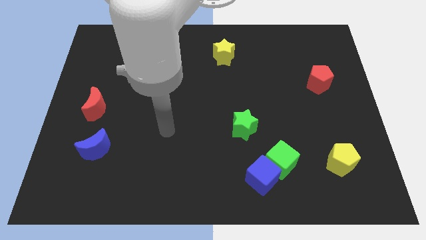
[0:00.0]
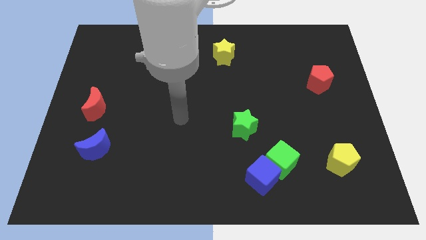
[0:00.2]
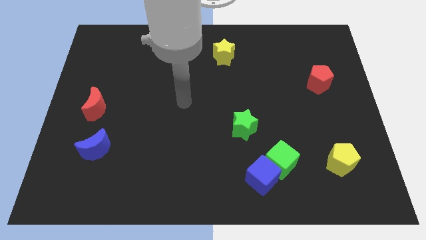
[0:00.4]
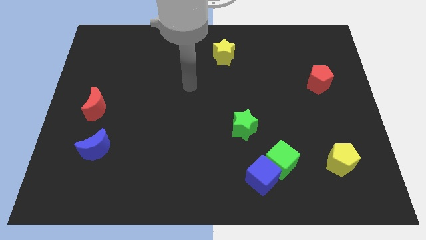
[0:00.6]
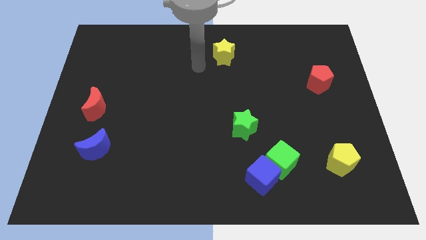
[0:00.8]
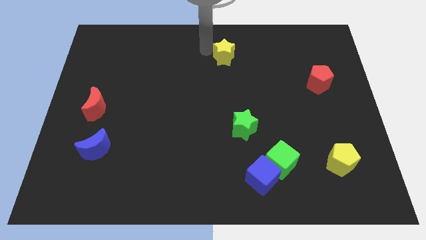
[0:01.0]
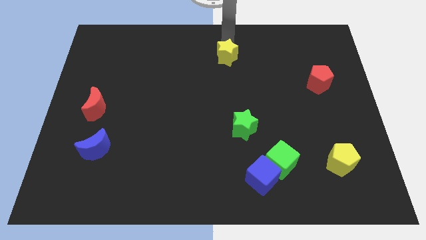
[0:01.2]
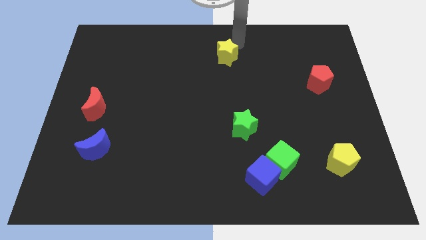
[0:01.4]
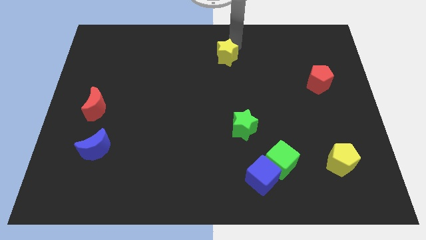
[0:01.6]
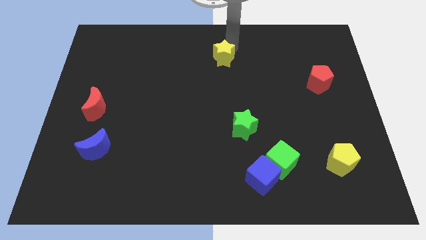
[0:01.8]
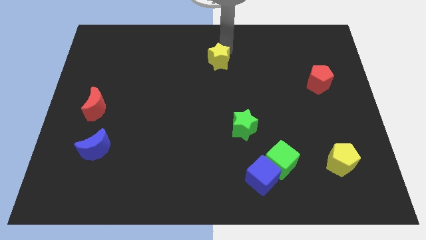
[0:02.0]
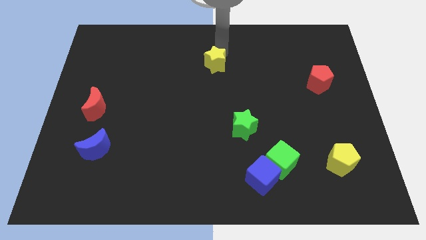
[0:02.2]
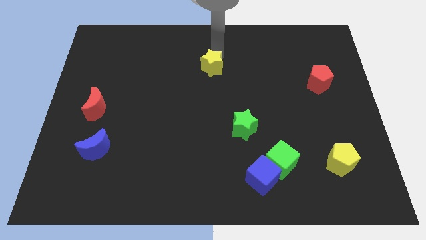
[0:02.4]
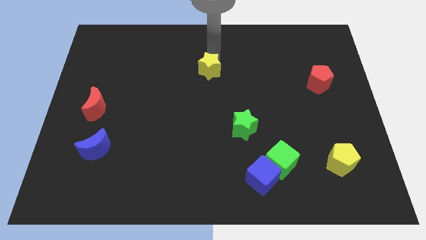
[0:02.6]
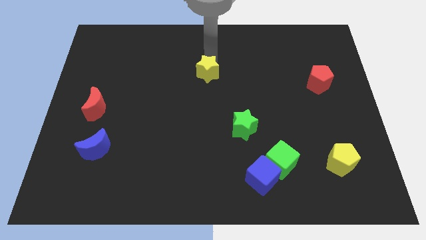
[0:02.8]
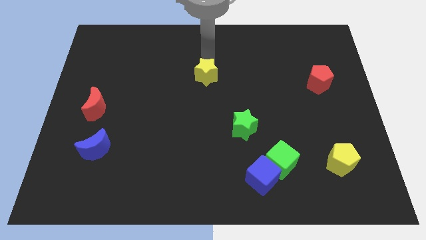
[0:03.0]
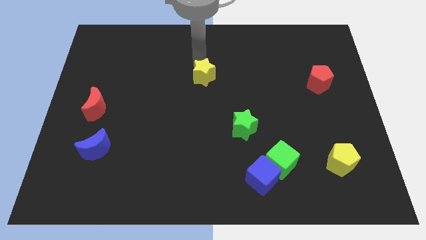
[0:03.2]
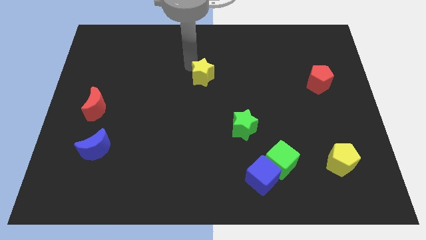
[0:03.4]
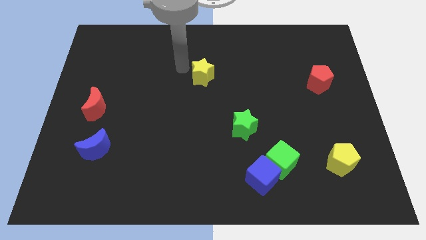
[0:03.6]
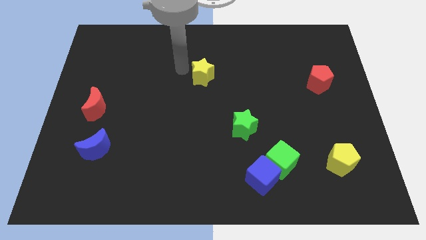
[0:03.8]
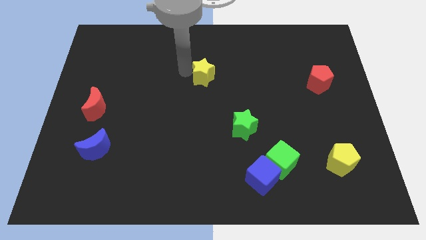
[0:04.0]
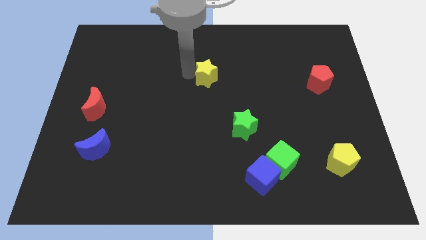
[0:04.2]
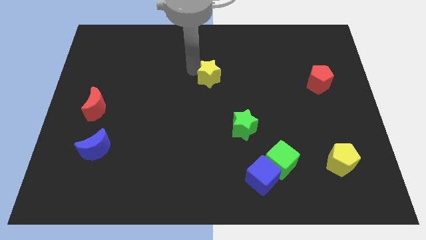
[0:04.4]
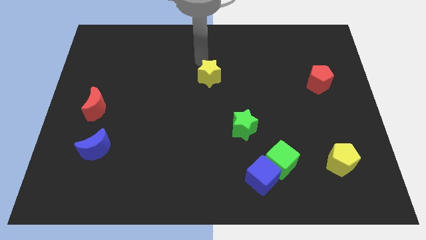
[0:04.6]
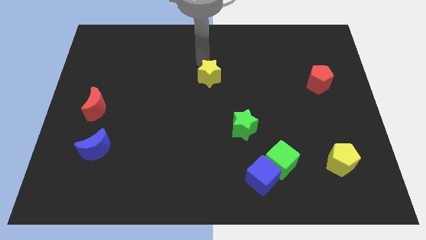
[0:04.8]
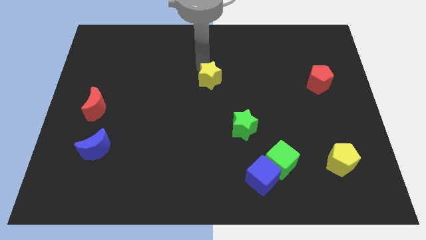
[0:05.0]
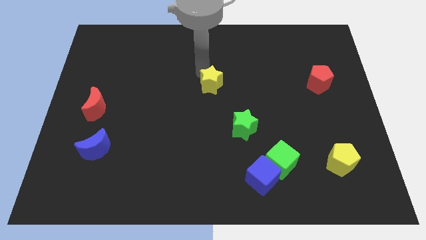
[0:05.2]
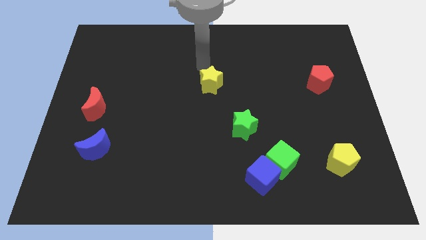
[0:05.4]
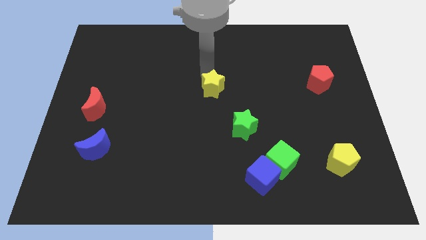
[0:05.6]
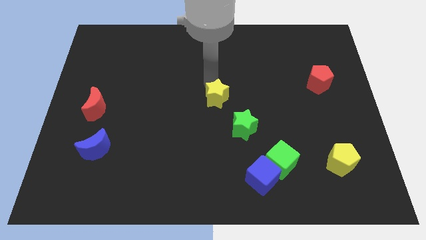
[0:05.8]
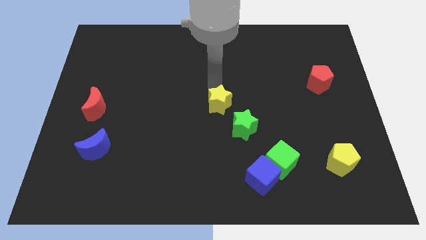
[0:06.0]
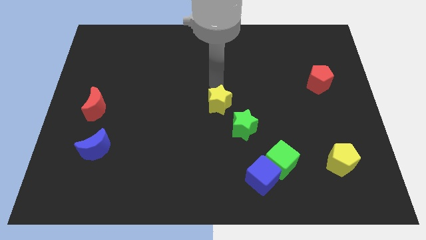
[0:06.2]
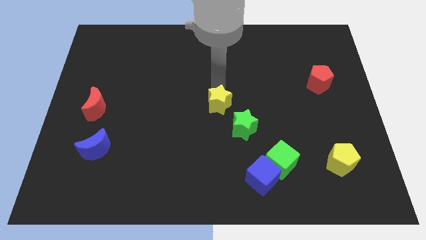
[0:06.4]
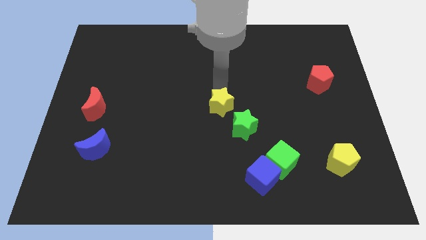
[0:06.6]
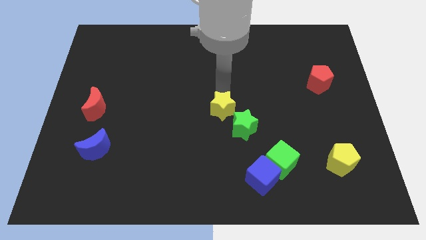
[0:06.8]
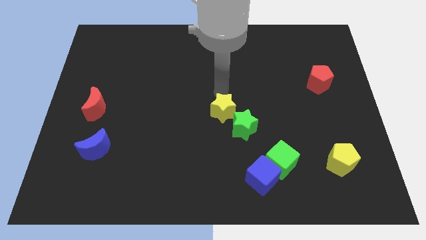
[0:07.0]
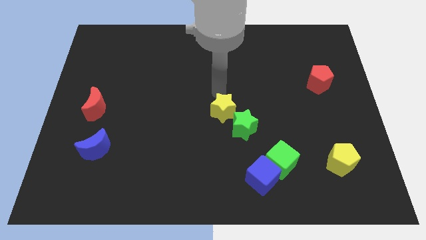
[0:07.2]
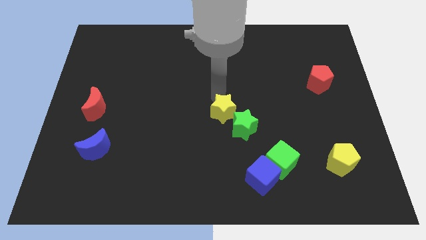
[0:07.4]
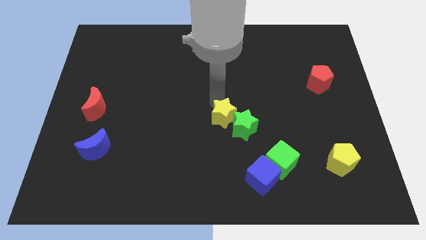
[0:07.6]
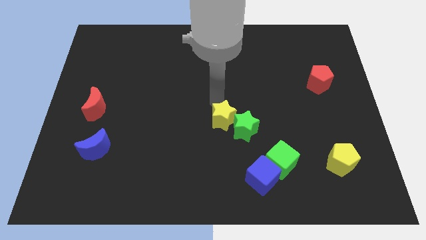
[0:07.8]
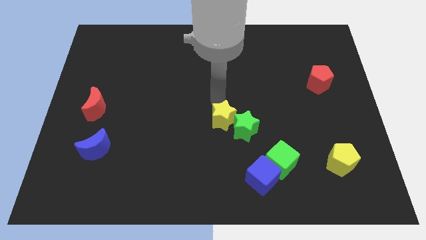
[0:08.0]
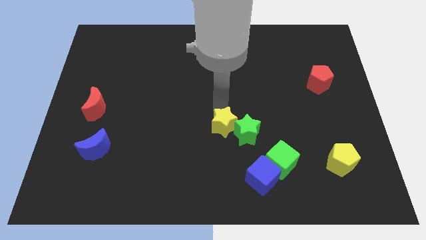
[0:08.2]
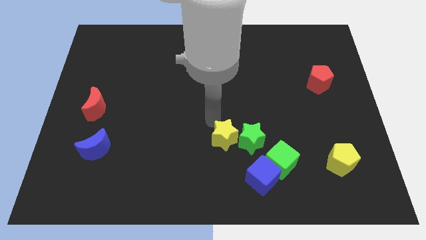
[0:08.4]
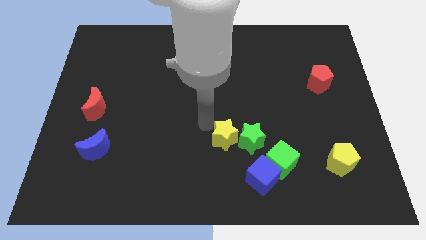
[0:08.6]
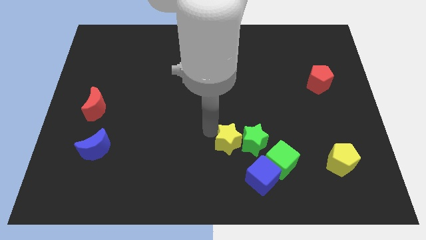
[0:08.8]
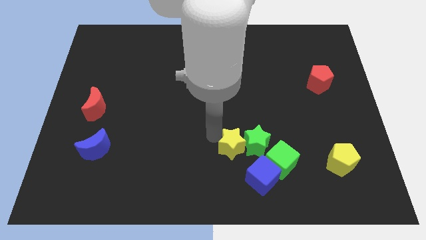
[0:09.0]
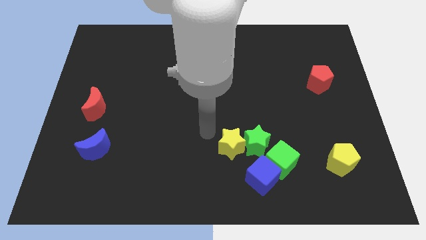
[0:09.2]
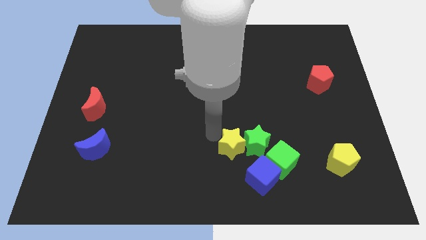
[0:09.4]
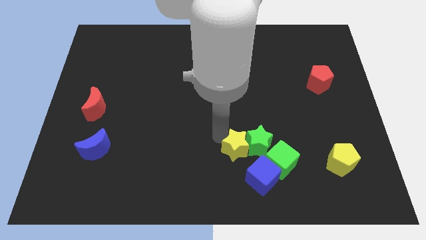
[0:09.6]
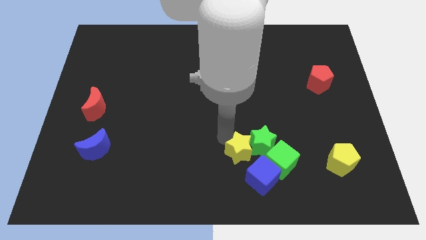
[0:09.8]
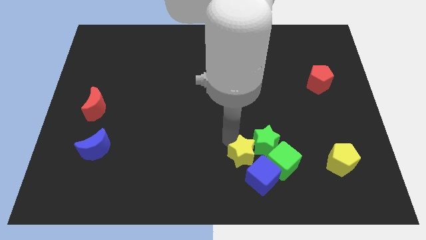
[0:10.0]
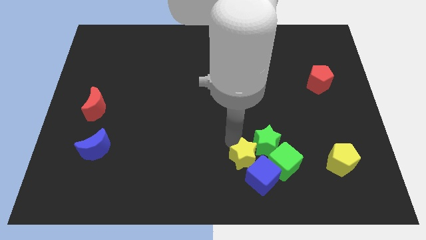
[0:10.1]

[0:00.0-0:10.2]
put the yellow star towards the blue cube

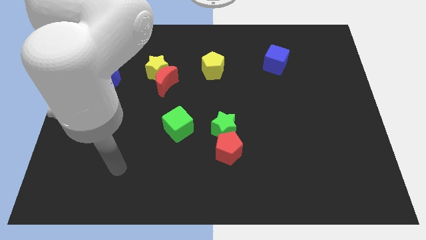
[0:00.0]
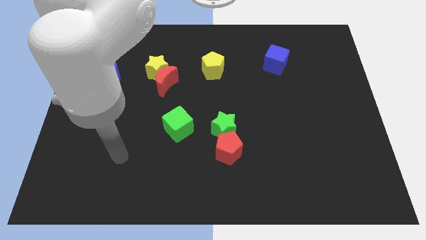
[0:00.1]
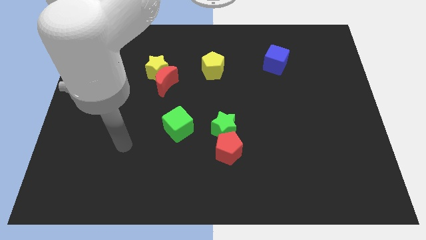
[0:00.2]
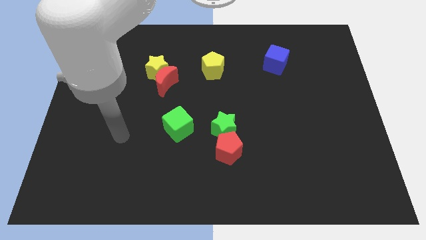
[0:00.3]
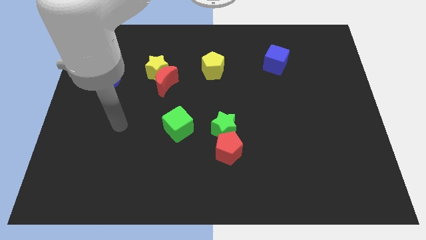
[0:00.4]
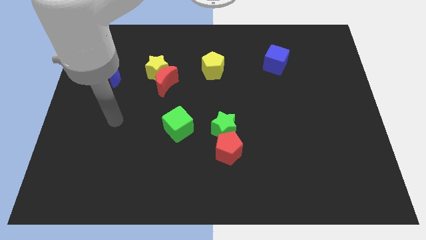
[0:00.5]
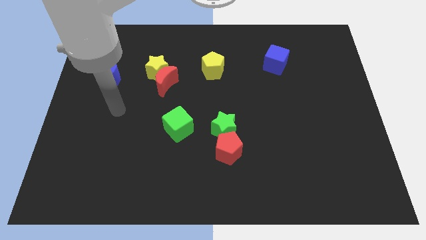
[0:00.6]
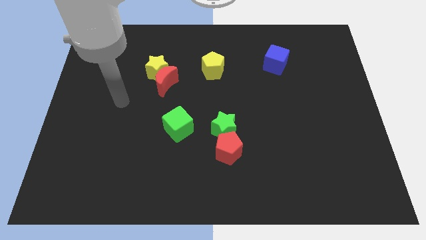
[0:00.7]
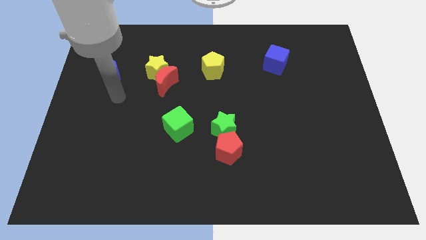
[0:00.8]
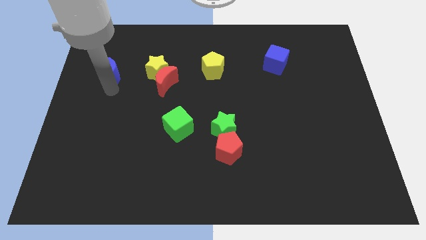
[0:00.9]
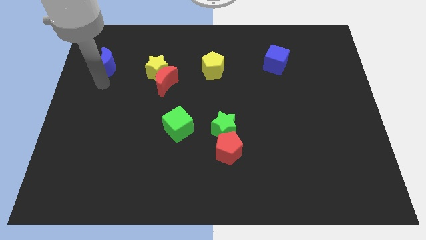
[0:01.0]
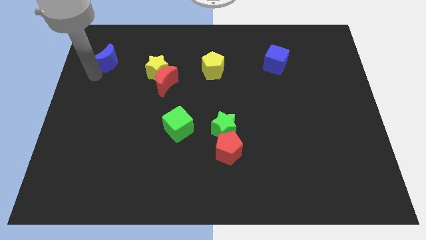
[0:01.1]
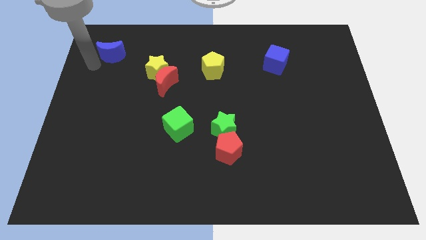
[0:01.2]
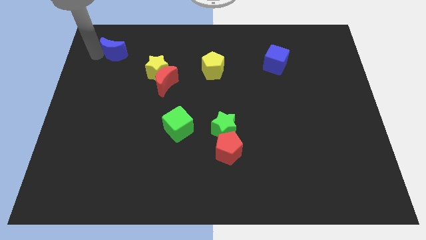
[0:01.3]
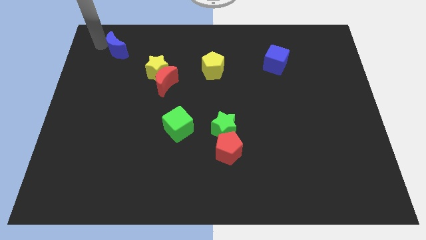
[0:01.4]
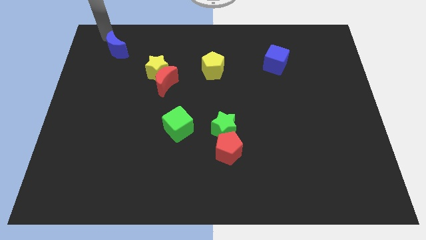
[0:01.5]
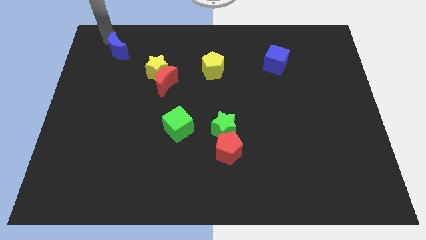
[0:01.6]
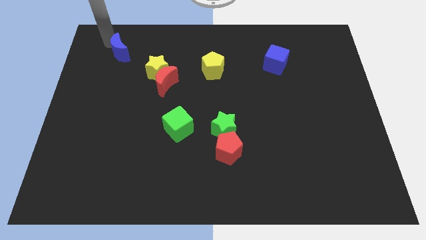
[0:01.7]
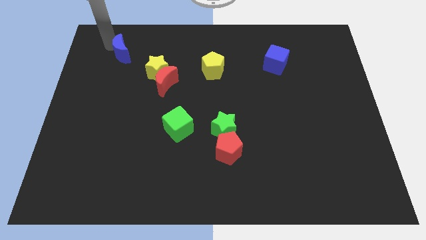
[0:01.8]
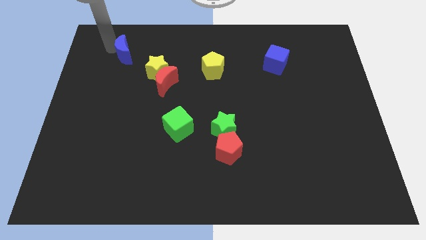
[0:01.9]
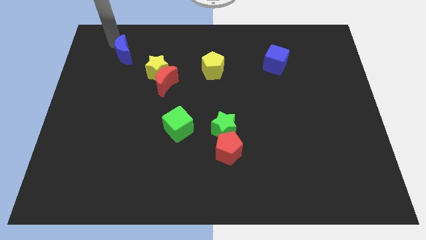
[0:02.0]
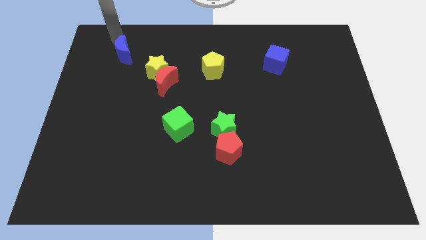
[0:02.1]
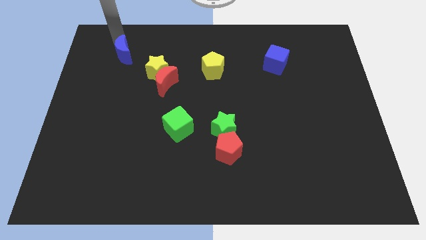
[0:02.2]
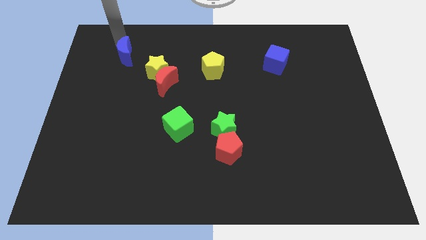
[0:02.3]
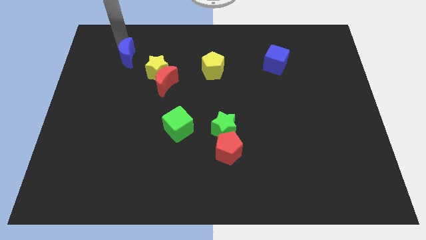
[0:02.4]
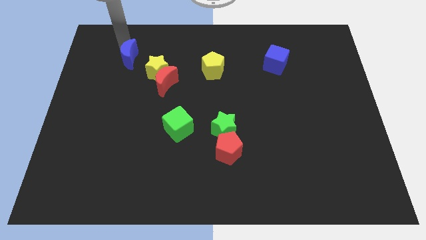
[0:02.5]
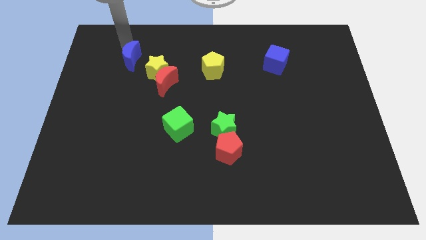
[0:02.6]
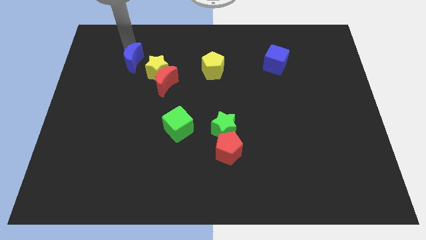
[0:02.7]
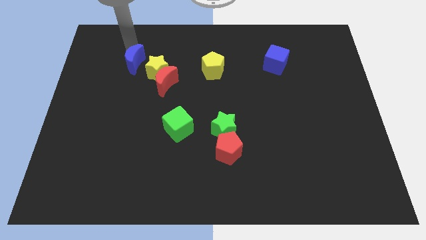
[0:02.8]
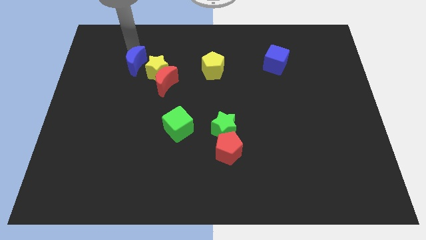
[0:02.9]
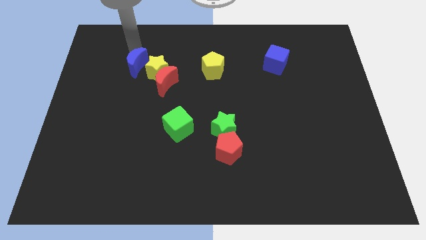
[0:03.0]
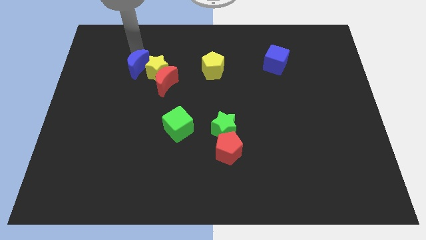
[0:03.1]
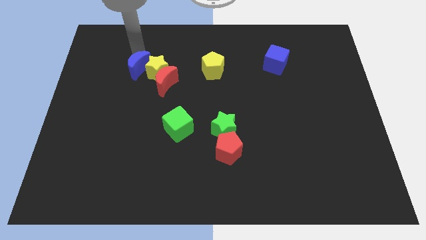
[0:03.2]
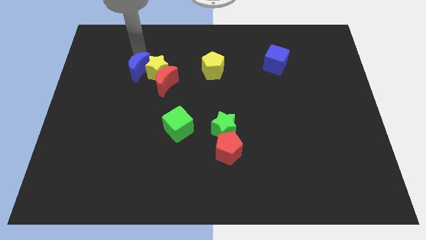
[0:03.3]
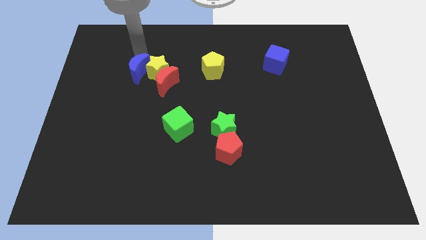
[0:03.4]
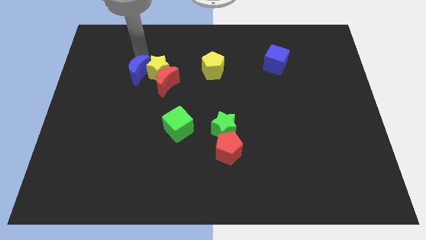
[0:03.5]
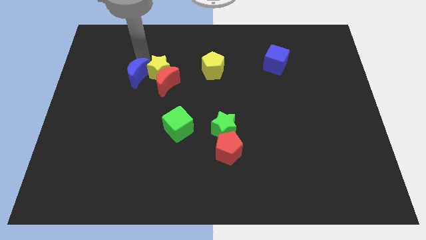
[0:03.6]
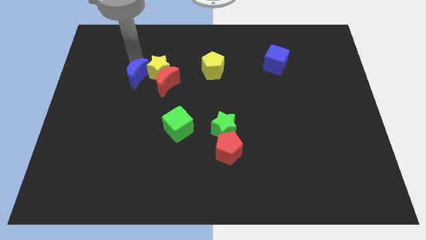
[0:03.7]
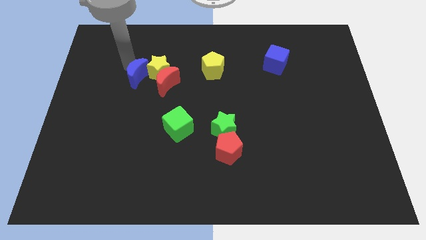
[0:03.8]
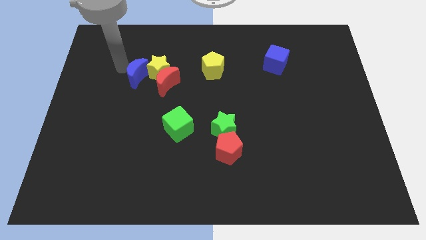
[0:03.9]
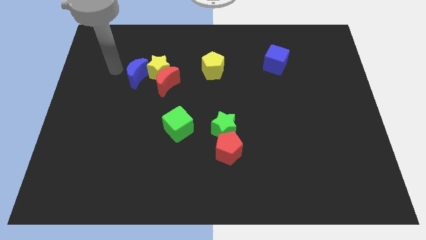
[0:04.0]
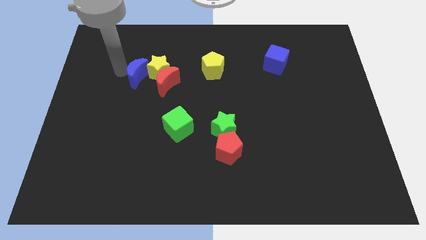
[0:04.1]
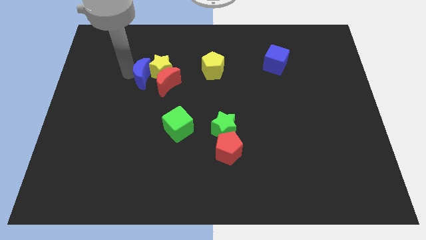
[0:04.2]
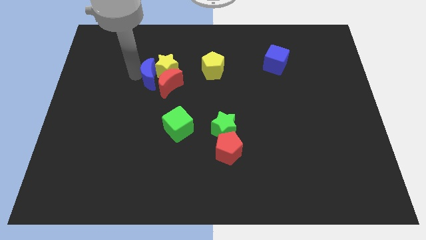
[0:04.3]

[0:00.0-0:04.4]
slide the blue moon towards the red moon
